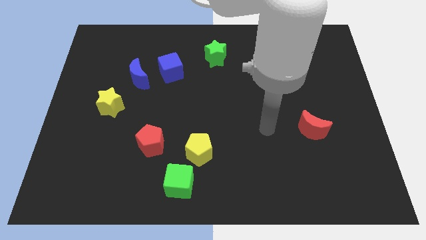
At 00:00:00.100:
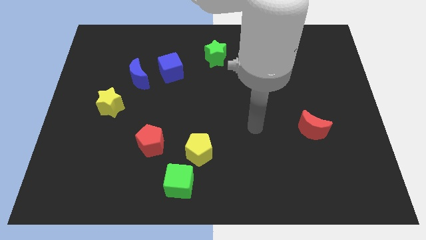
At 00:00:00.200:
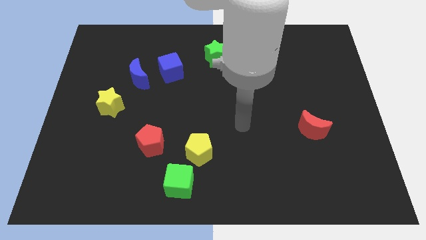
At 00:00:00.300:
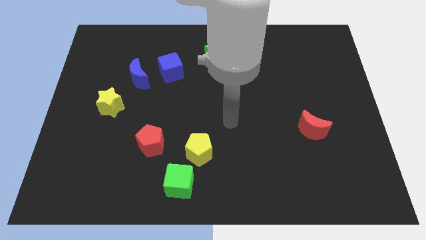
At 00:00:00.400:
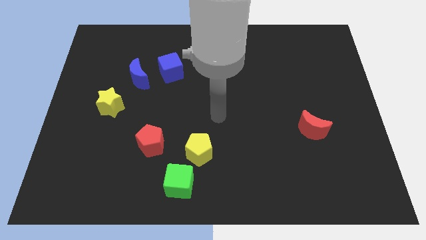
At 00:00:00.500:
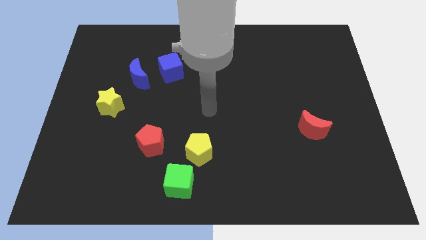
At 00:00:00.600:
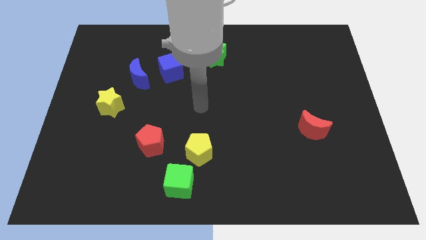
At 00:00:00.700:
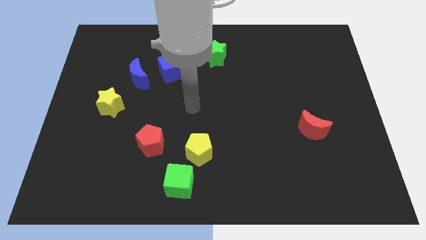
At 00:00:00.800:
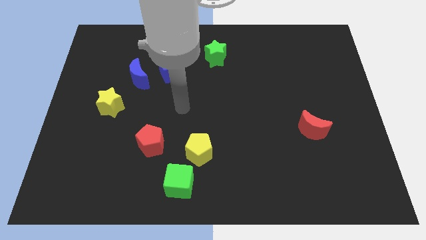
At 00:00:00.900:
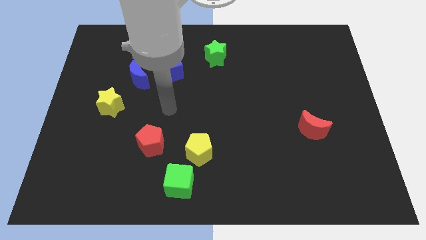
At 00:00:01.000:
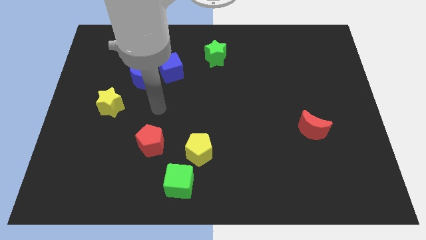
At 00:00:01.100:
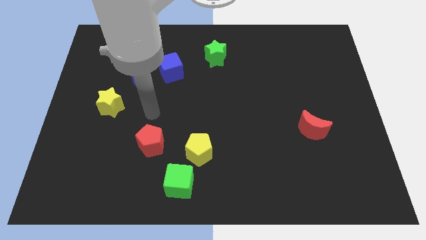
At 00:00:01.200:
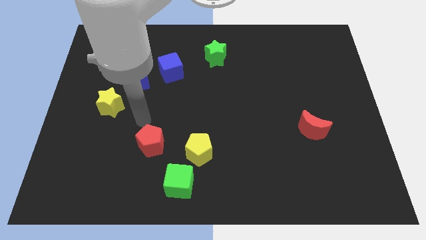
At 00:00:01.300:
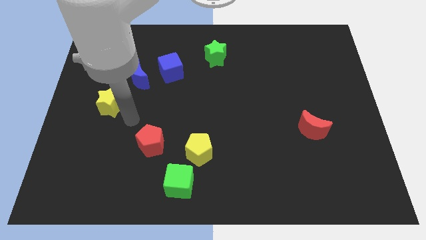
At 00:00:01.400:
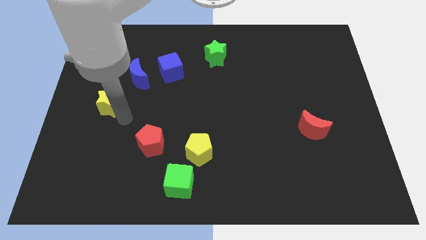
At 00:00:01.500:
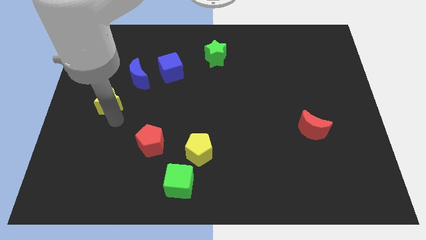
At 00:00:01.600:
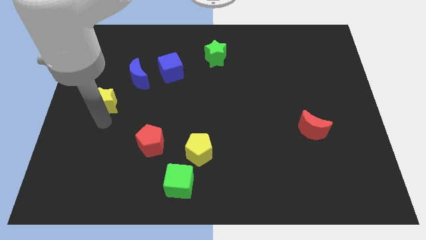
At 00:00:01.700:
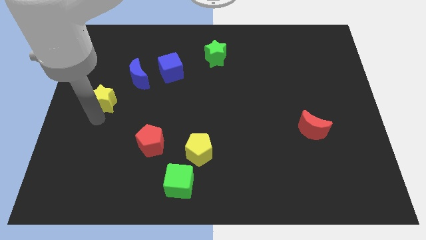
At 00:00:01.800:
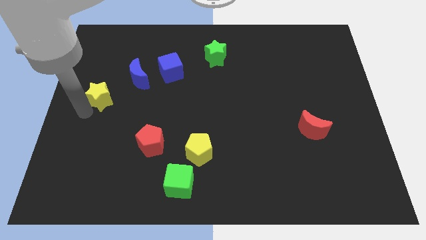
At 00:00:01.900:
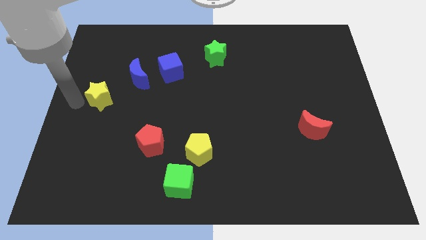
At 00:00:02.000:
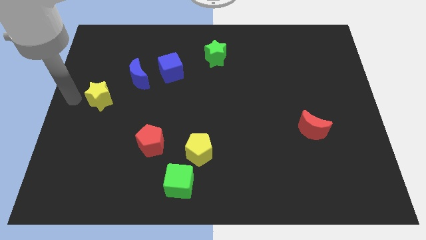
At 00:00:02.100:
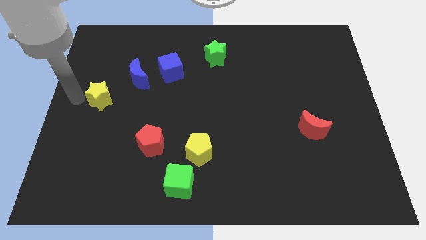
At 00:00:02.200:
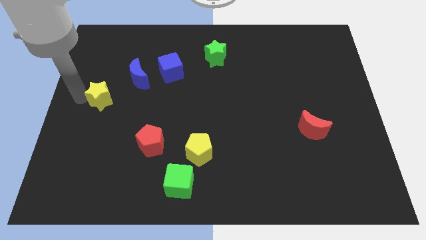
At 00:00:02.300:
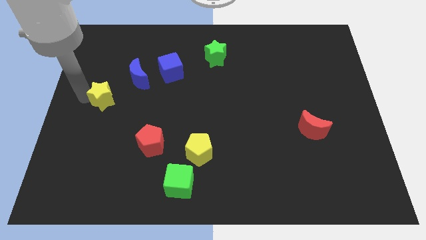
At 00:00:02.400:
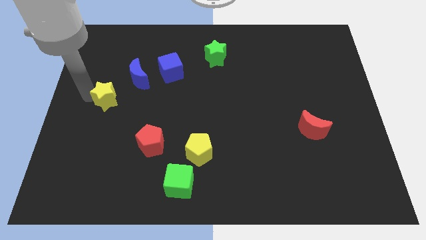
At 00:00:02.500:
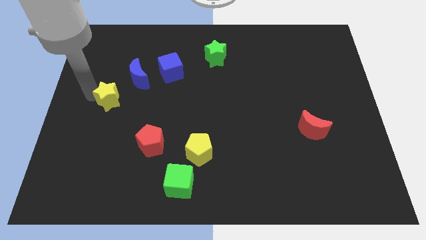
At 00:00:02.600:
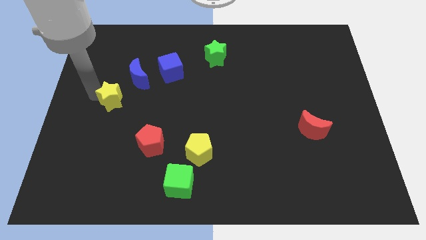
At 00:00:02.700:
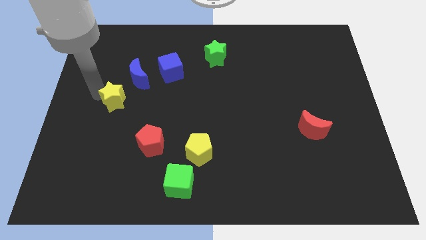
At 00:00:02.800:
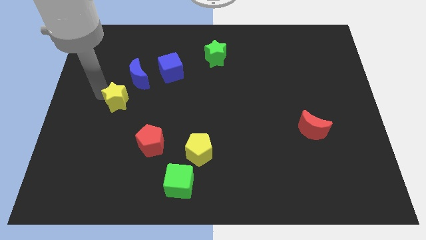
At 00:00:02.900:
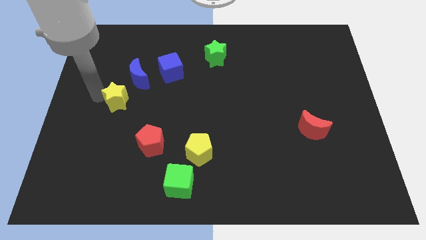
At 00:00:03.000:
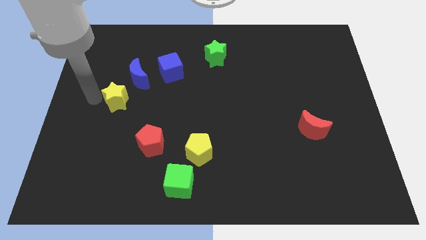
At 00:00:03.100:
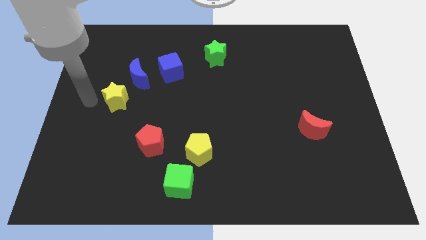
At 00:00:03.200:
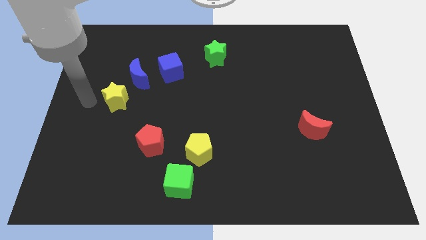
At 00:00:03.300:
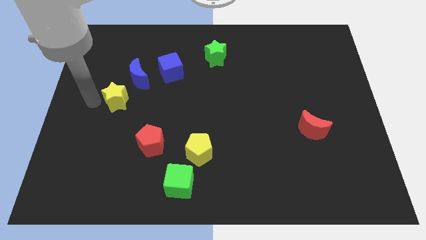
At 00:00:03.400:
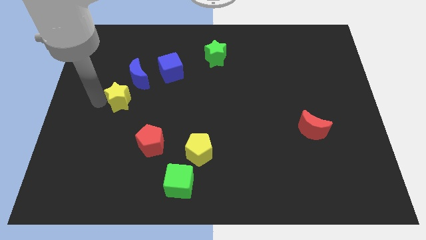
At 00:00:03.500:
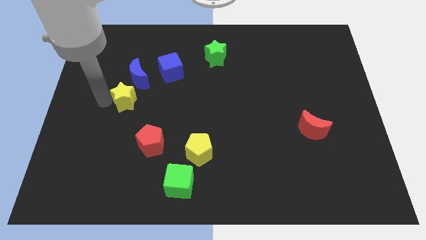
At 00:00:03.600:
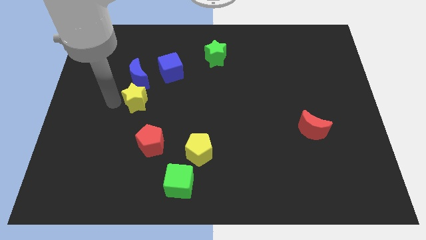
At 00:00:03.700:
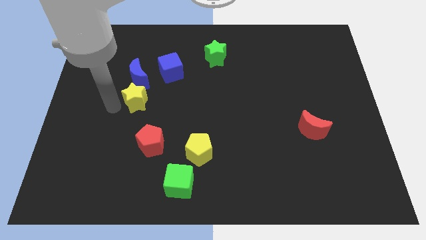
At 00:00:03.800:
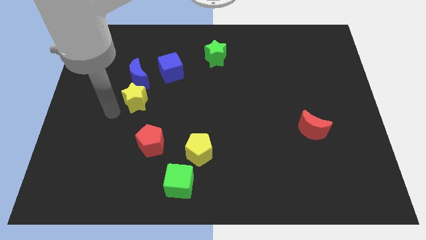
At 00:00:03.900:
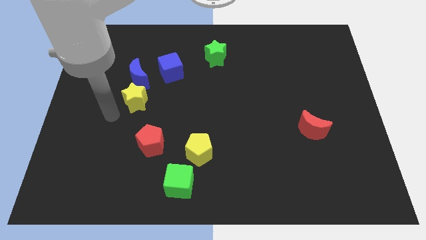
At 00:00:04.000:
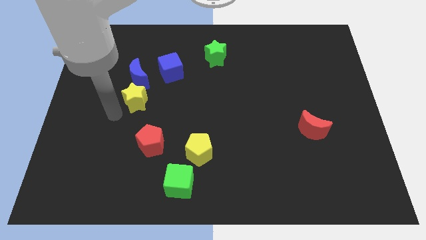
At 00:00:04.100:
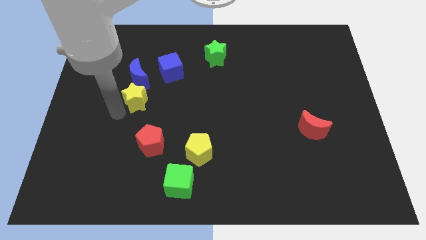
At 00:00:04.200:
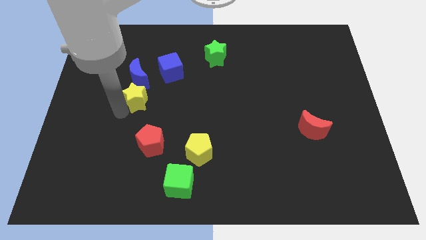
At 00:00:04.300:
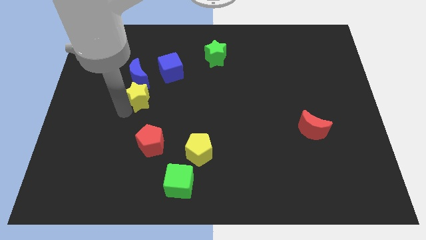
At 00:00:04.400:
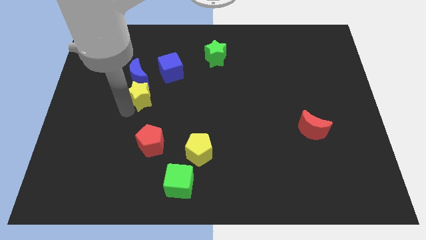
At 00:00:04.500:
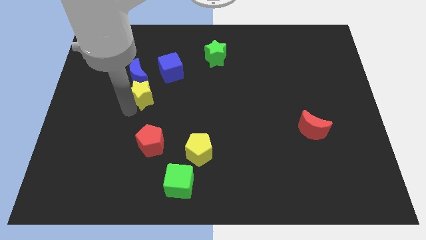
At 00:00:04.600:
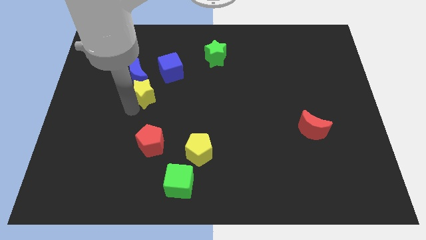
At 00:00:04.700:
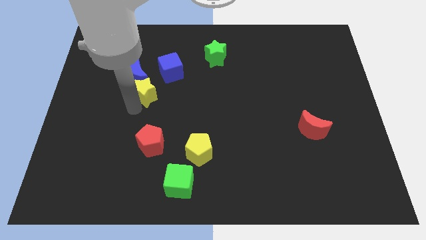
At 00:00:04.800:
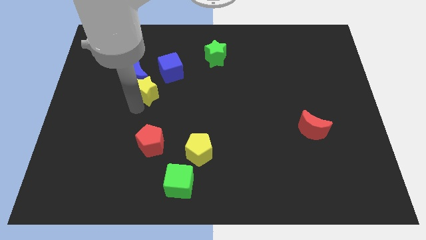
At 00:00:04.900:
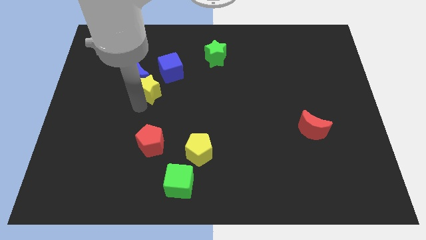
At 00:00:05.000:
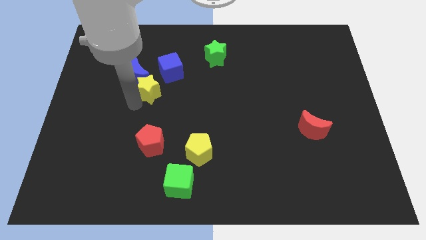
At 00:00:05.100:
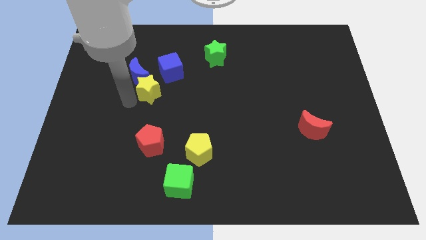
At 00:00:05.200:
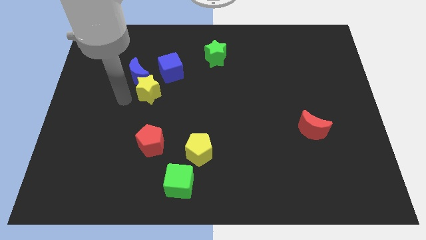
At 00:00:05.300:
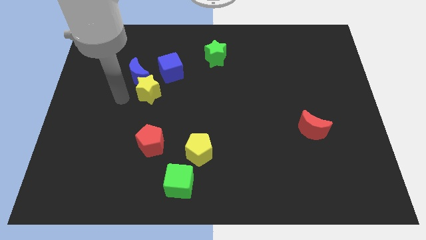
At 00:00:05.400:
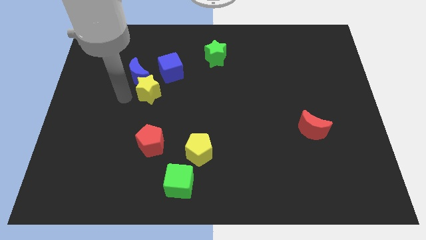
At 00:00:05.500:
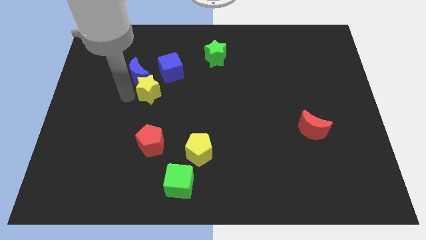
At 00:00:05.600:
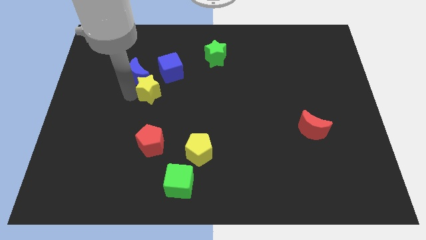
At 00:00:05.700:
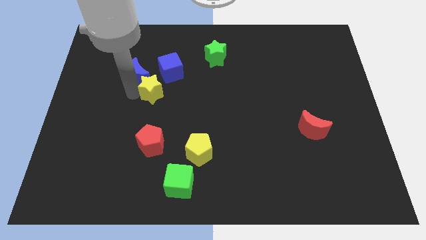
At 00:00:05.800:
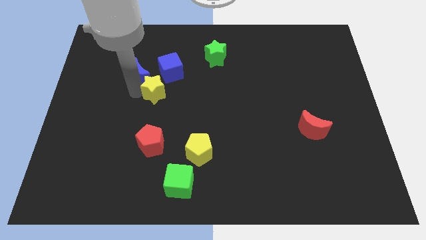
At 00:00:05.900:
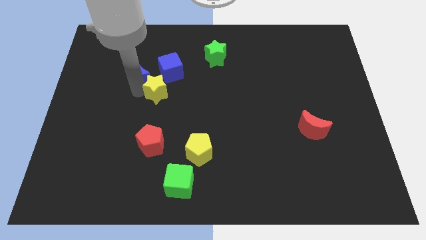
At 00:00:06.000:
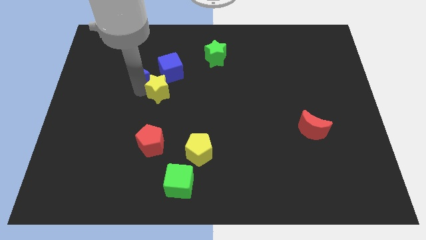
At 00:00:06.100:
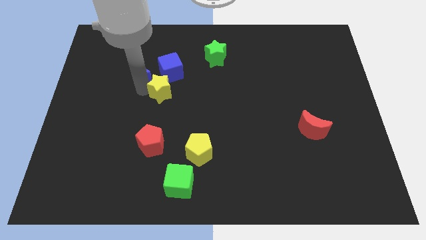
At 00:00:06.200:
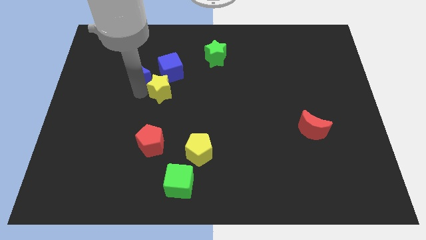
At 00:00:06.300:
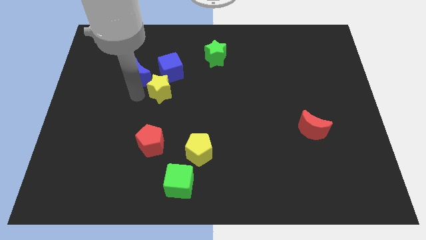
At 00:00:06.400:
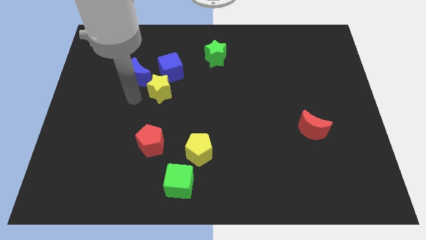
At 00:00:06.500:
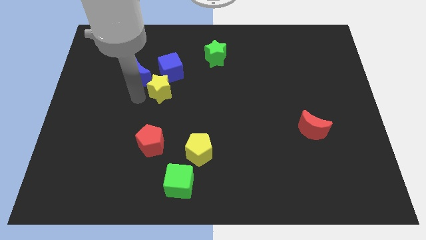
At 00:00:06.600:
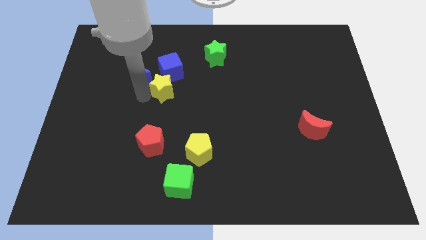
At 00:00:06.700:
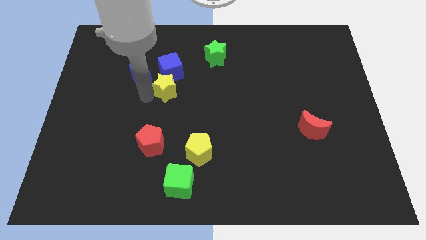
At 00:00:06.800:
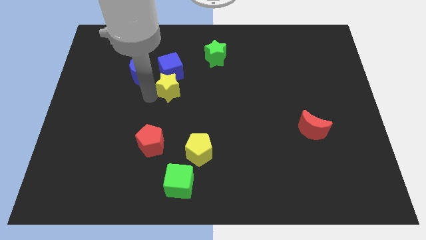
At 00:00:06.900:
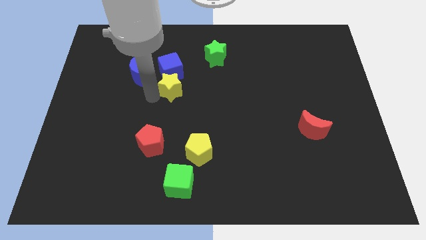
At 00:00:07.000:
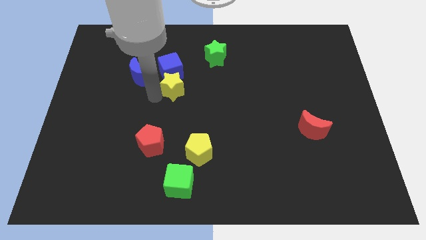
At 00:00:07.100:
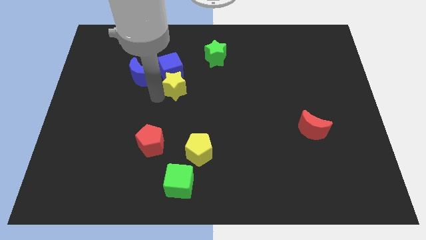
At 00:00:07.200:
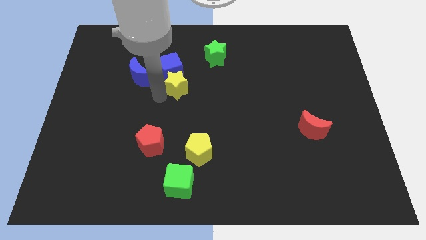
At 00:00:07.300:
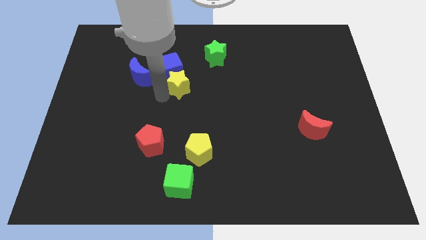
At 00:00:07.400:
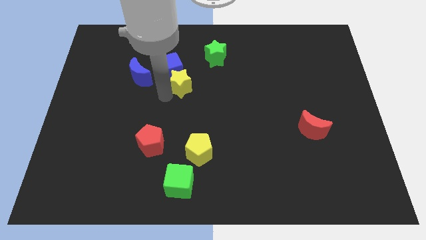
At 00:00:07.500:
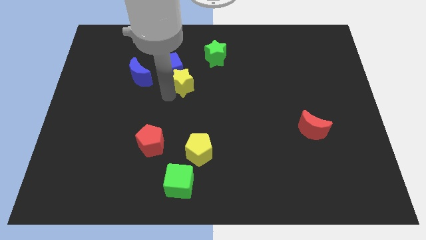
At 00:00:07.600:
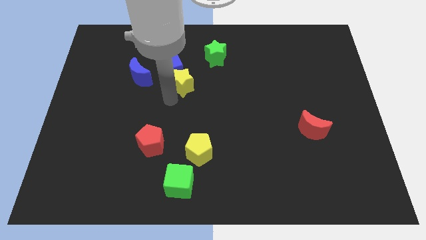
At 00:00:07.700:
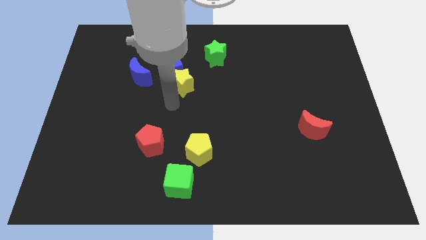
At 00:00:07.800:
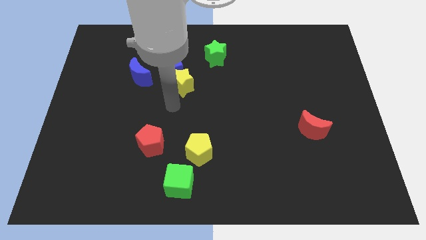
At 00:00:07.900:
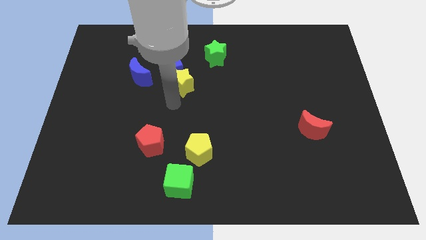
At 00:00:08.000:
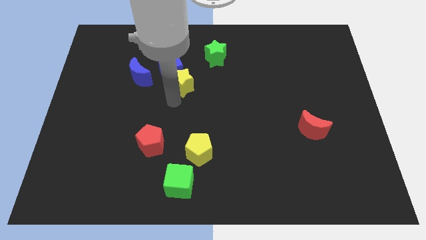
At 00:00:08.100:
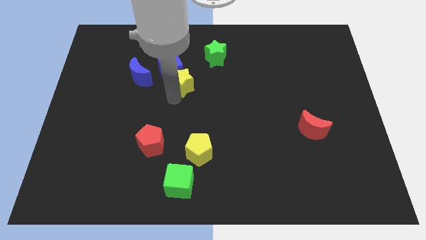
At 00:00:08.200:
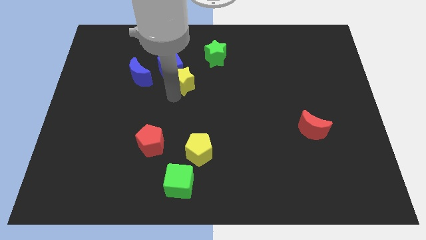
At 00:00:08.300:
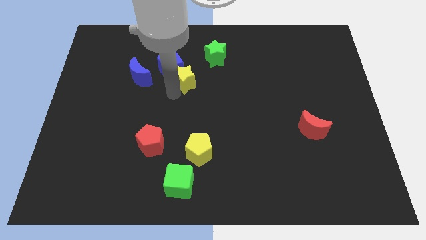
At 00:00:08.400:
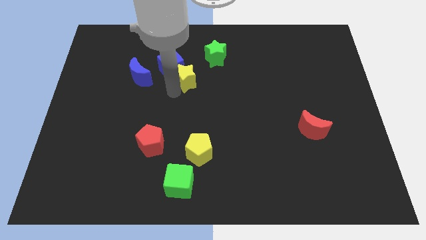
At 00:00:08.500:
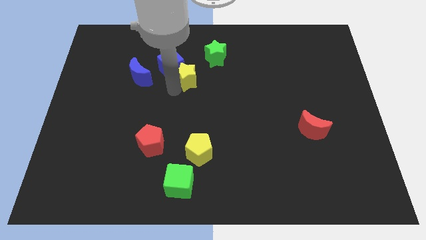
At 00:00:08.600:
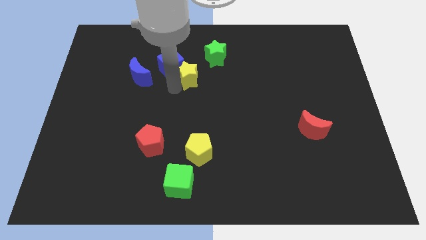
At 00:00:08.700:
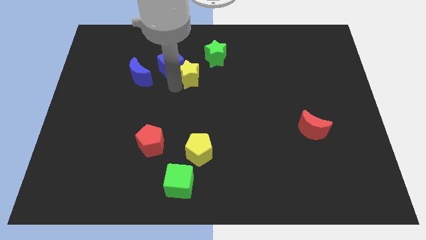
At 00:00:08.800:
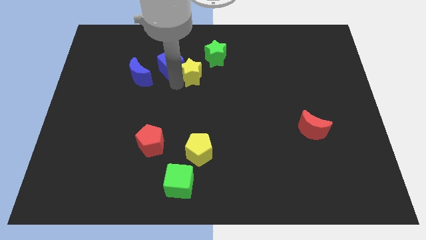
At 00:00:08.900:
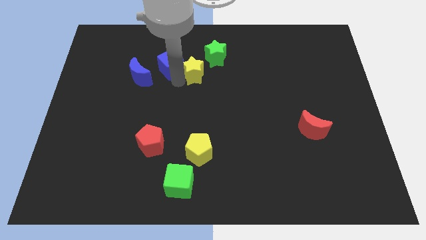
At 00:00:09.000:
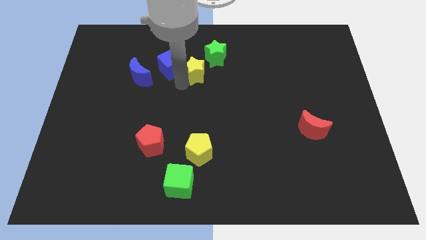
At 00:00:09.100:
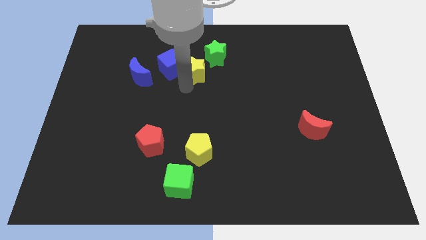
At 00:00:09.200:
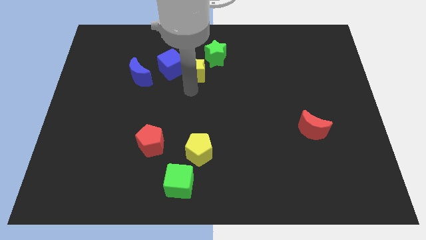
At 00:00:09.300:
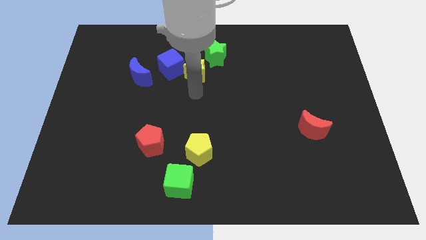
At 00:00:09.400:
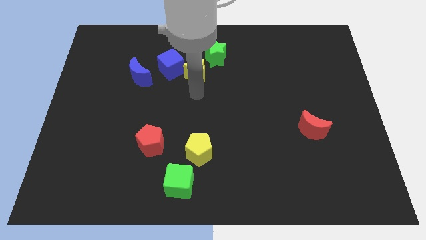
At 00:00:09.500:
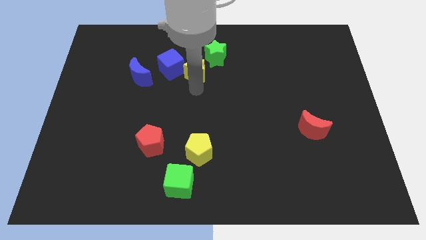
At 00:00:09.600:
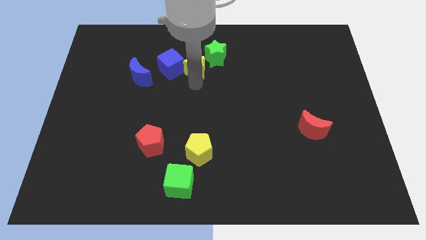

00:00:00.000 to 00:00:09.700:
move the yellow star to the top right of the blue cube
